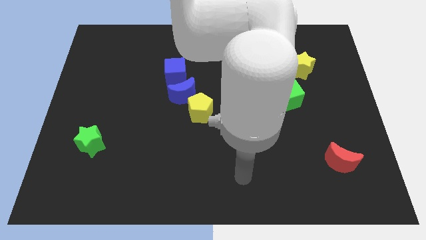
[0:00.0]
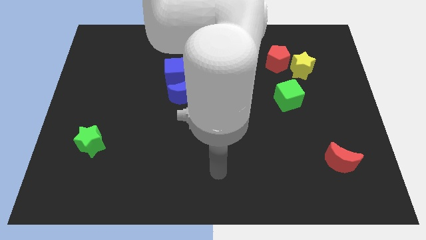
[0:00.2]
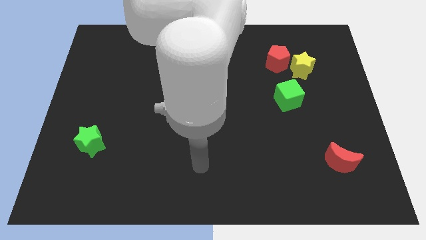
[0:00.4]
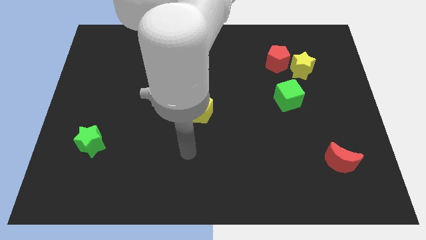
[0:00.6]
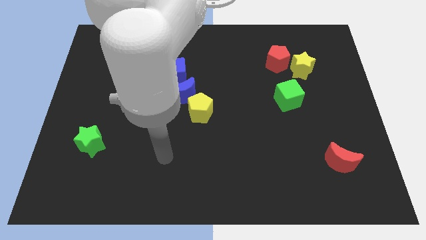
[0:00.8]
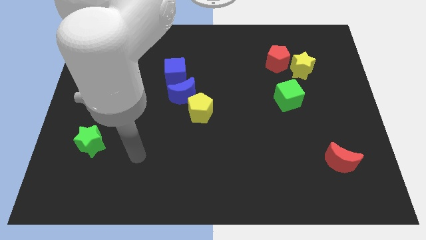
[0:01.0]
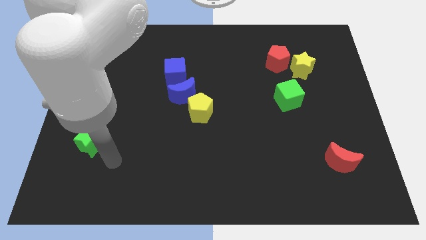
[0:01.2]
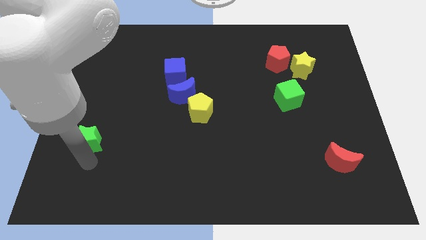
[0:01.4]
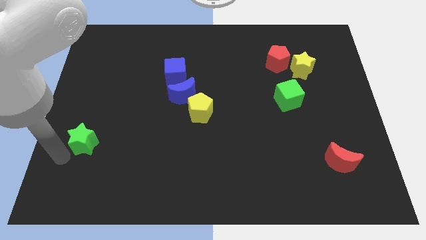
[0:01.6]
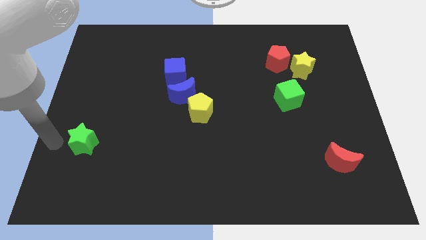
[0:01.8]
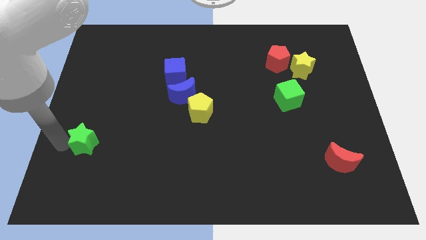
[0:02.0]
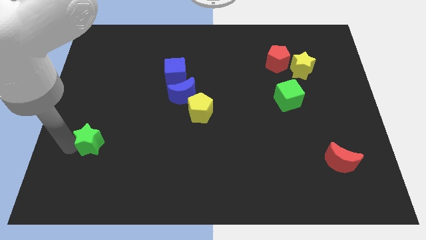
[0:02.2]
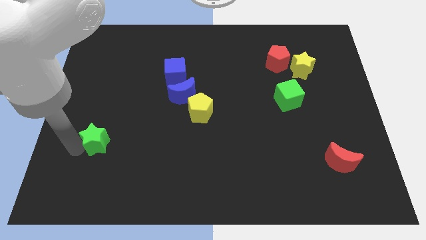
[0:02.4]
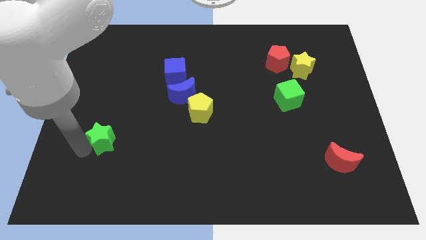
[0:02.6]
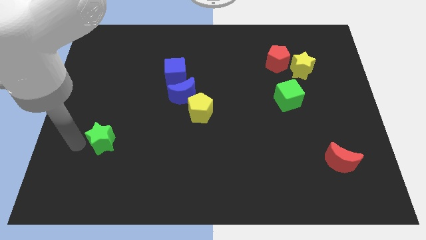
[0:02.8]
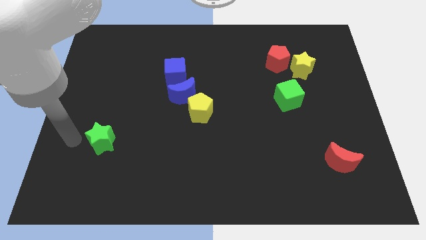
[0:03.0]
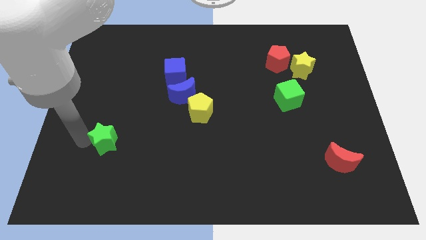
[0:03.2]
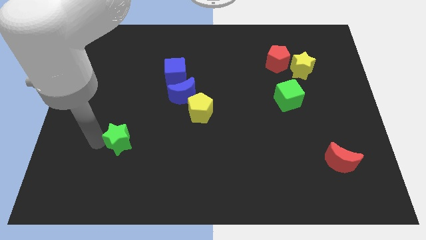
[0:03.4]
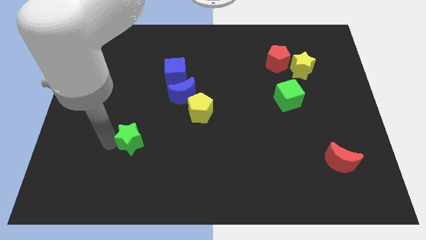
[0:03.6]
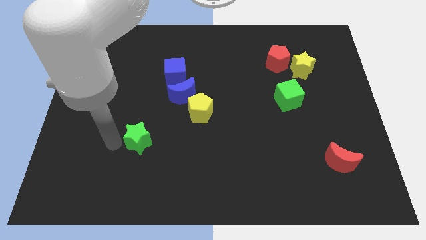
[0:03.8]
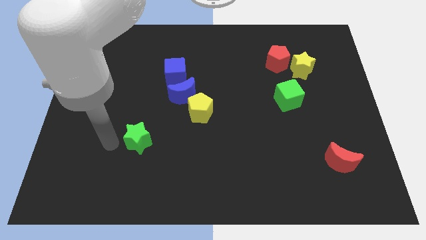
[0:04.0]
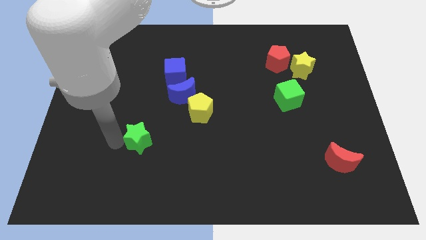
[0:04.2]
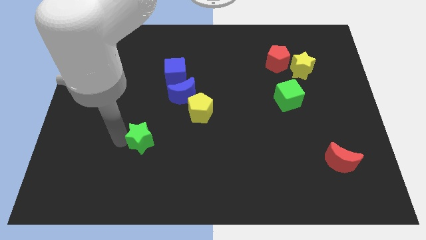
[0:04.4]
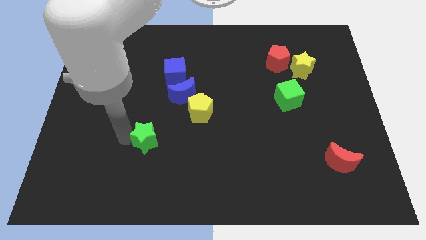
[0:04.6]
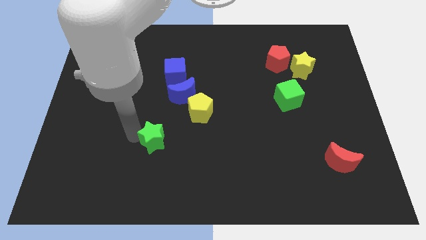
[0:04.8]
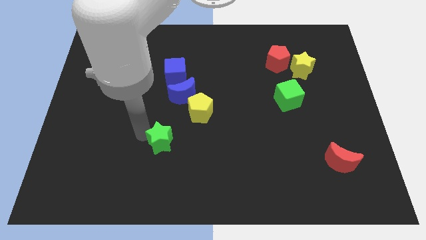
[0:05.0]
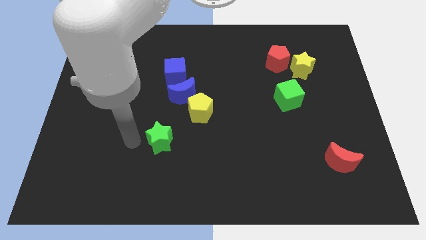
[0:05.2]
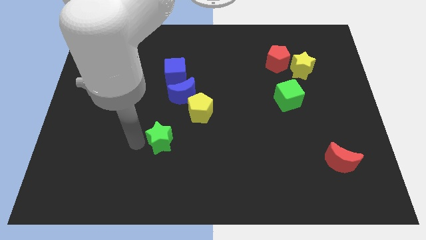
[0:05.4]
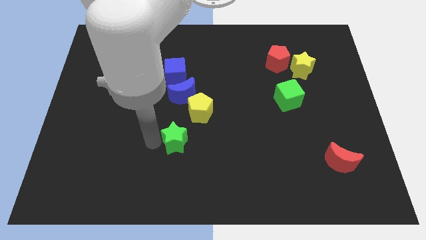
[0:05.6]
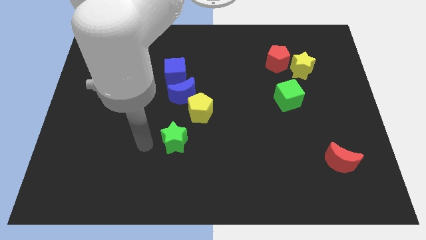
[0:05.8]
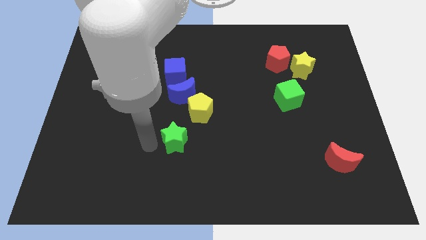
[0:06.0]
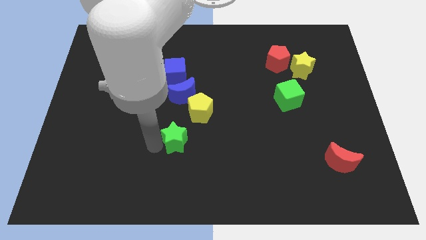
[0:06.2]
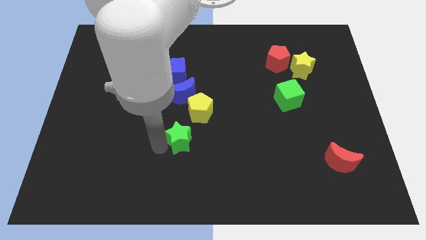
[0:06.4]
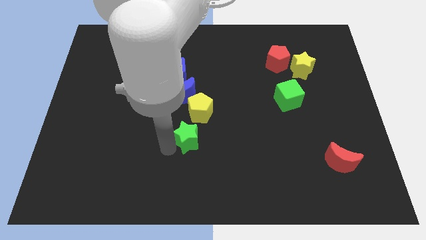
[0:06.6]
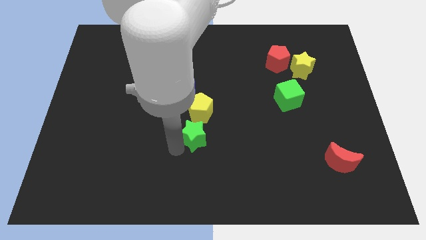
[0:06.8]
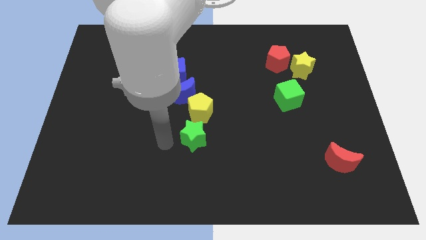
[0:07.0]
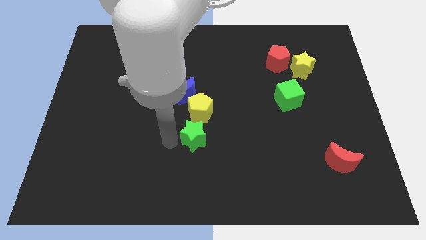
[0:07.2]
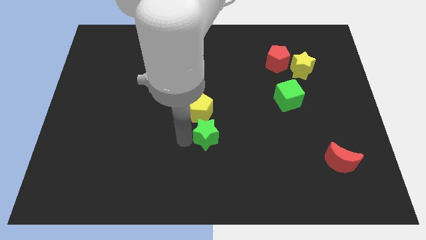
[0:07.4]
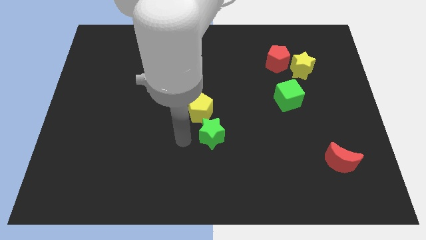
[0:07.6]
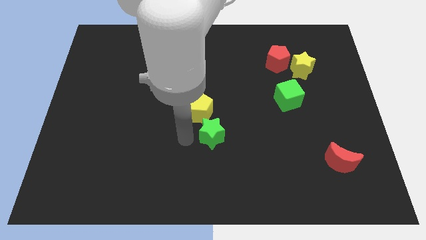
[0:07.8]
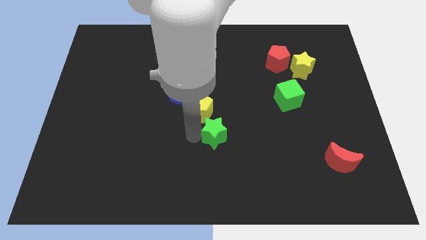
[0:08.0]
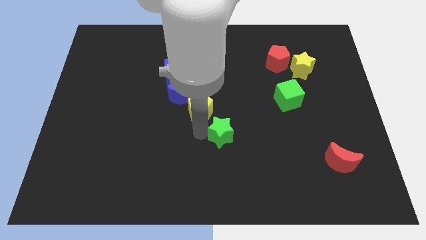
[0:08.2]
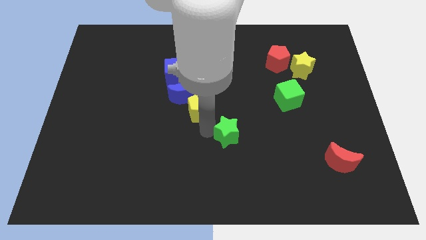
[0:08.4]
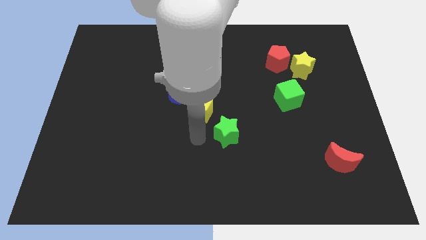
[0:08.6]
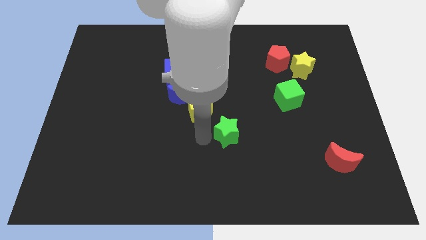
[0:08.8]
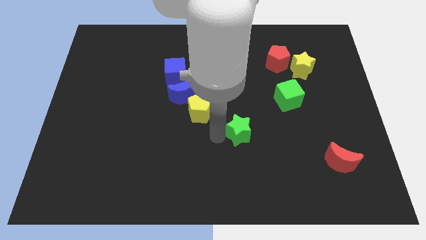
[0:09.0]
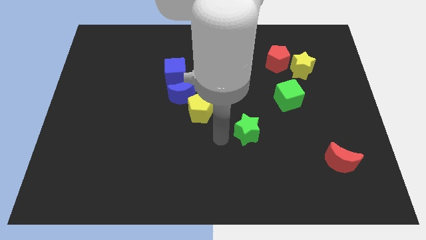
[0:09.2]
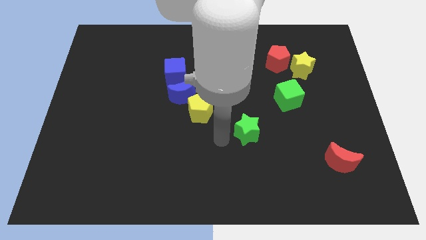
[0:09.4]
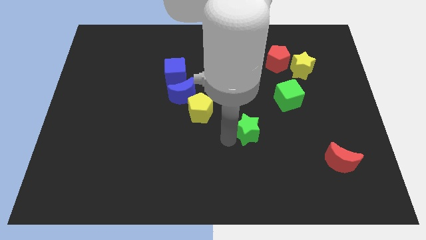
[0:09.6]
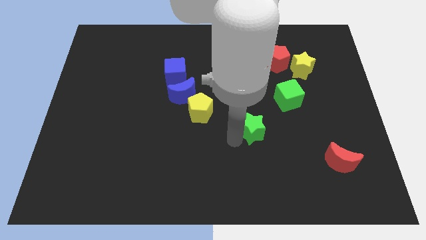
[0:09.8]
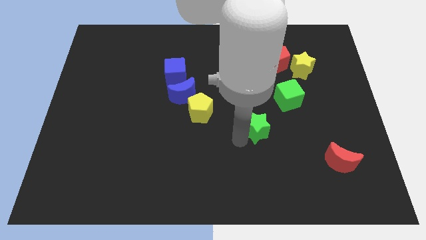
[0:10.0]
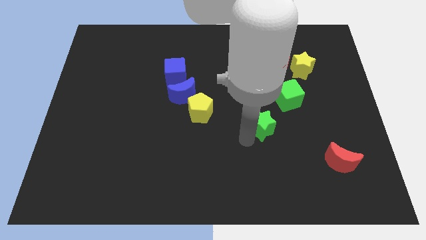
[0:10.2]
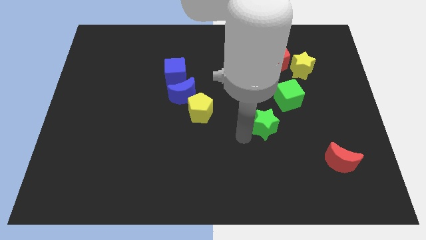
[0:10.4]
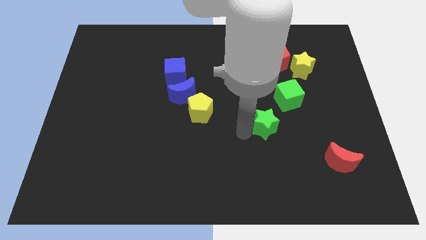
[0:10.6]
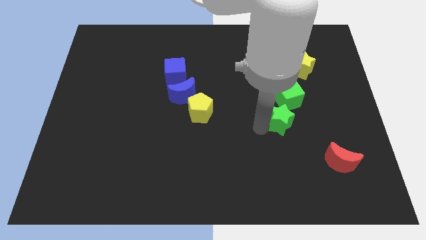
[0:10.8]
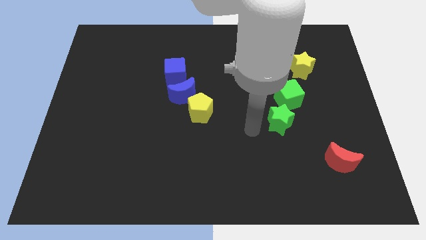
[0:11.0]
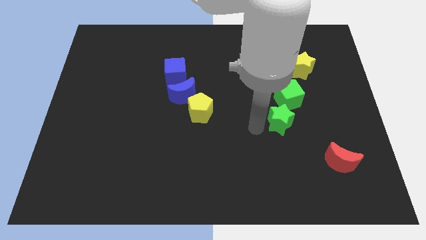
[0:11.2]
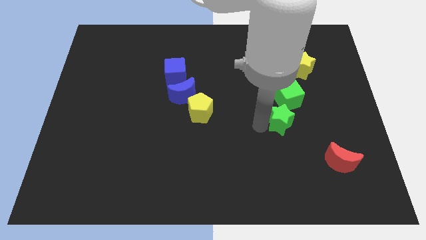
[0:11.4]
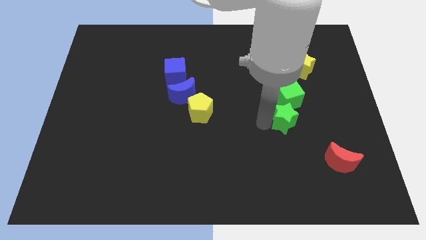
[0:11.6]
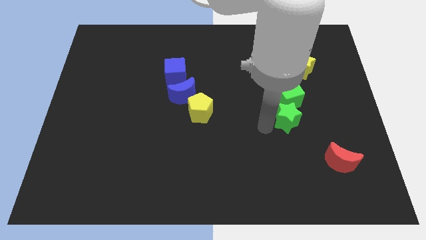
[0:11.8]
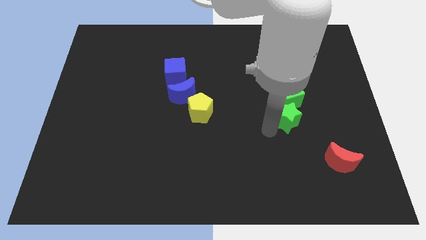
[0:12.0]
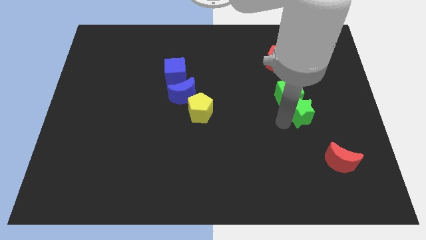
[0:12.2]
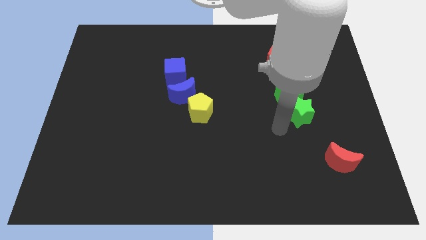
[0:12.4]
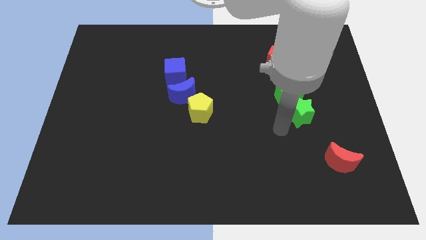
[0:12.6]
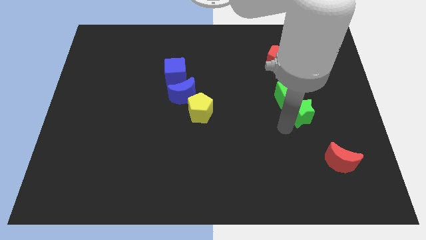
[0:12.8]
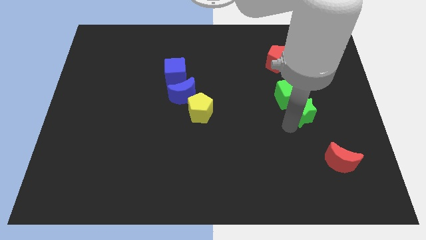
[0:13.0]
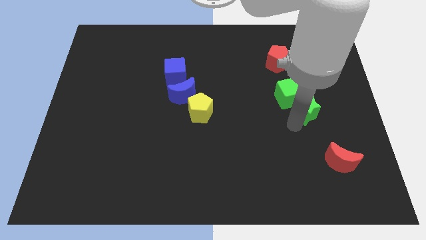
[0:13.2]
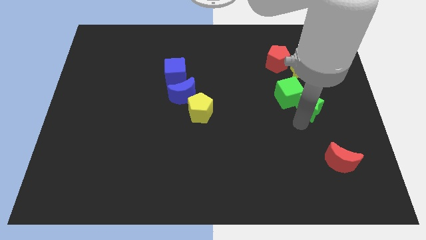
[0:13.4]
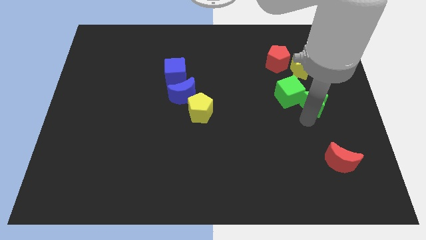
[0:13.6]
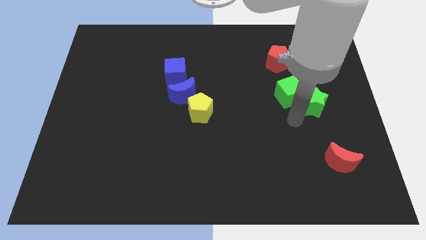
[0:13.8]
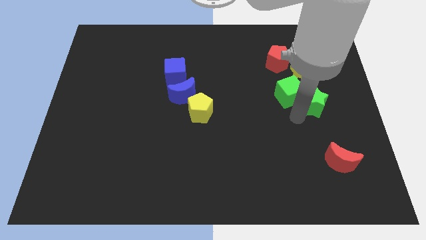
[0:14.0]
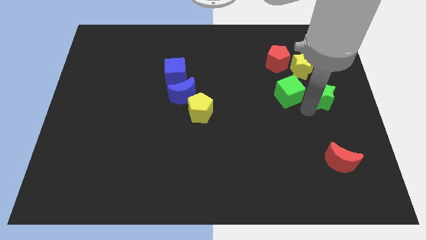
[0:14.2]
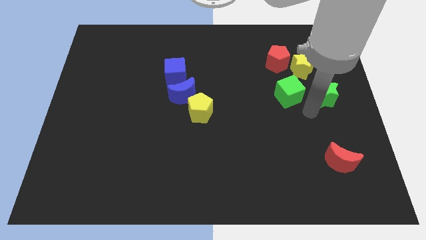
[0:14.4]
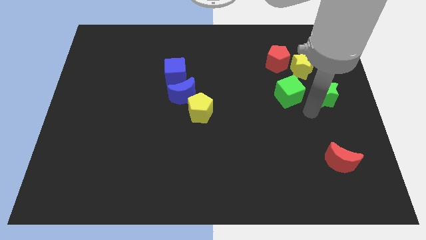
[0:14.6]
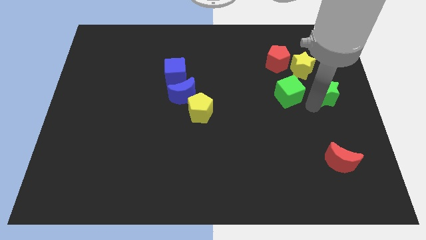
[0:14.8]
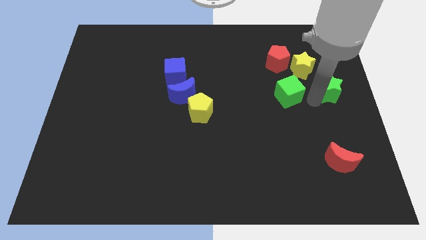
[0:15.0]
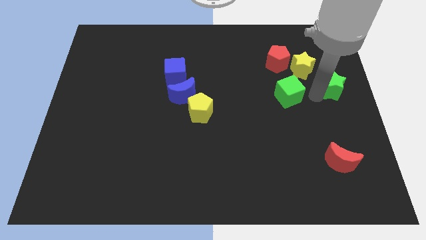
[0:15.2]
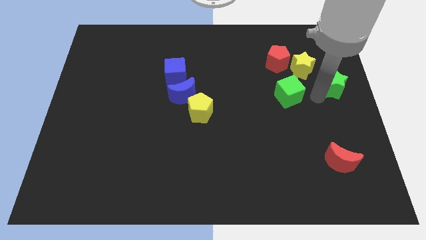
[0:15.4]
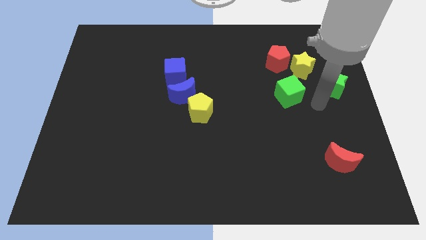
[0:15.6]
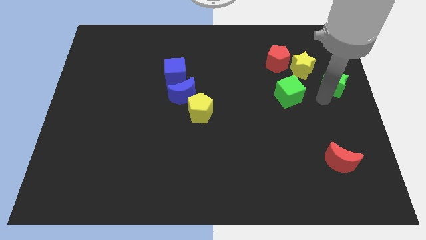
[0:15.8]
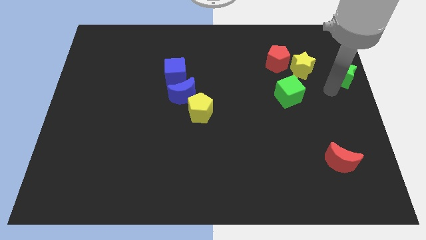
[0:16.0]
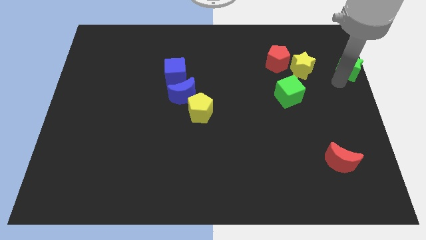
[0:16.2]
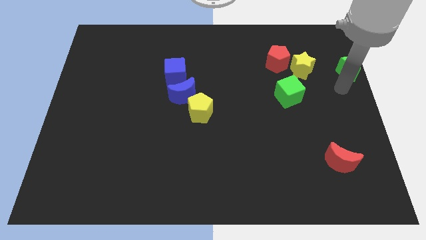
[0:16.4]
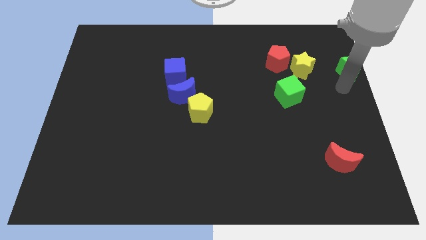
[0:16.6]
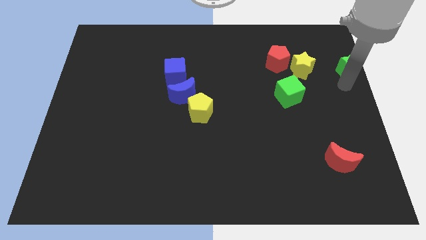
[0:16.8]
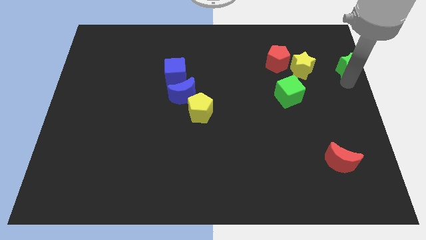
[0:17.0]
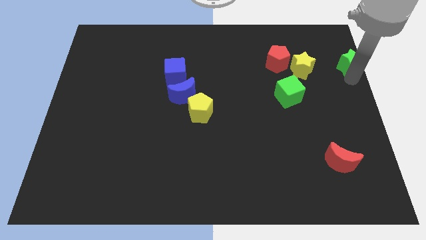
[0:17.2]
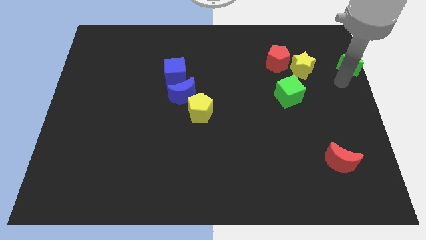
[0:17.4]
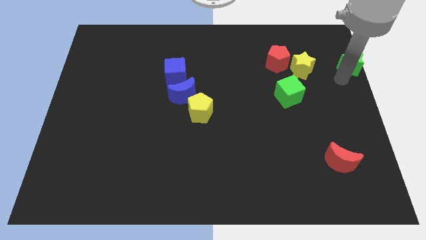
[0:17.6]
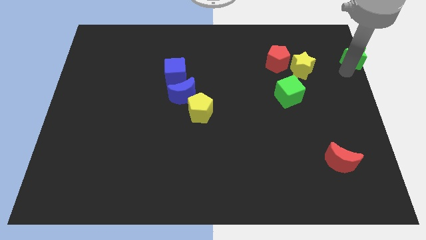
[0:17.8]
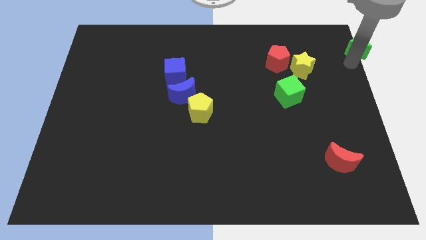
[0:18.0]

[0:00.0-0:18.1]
move the green star to the top right corner
